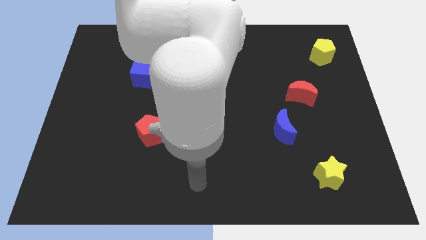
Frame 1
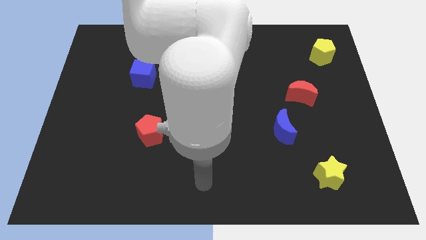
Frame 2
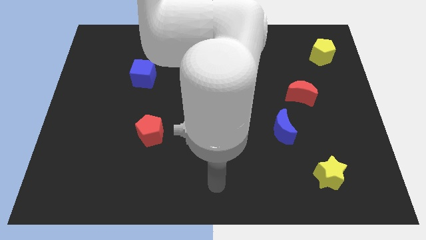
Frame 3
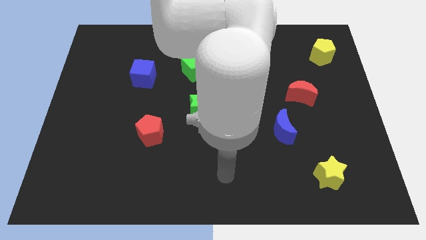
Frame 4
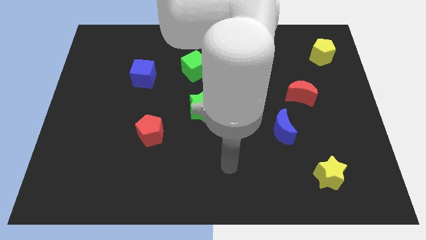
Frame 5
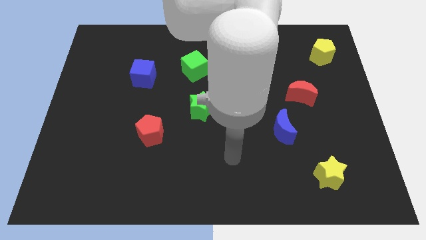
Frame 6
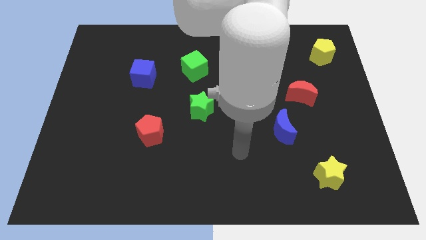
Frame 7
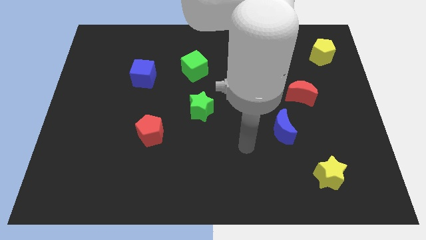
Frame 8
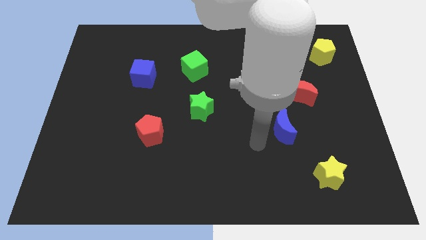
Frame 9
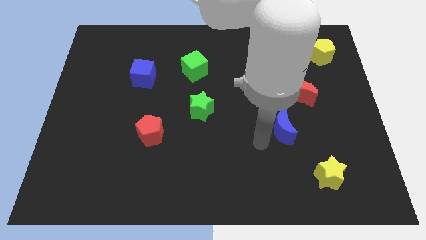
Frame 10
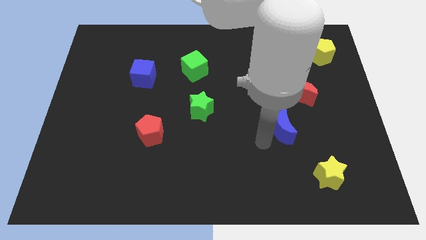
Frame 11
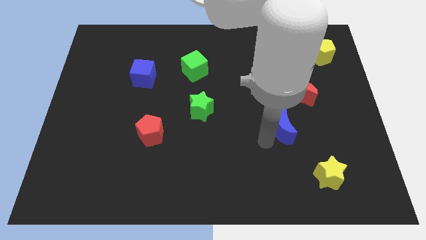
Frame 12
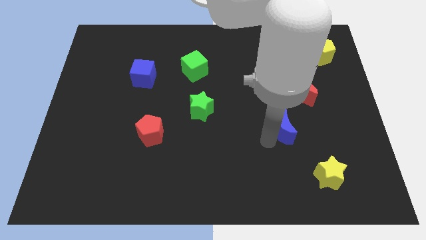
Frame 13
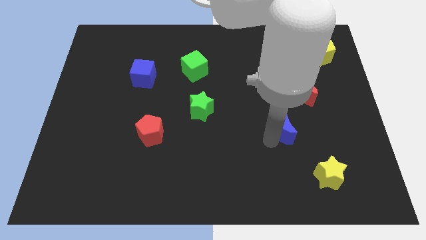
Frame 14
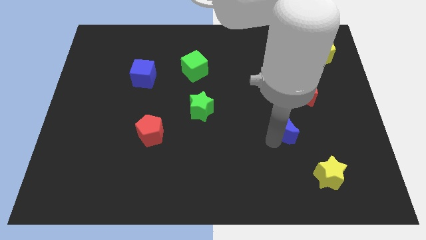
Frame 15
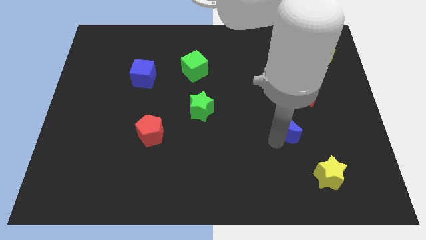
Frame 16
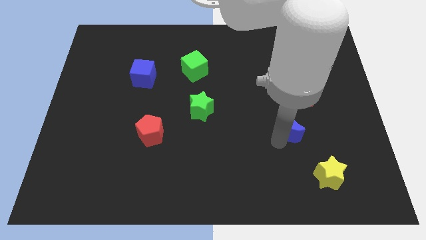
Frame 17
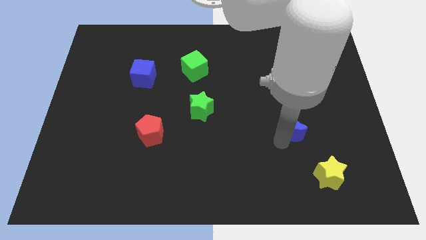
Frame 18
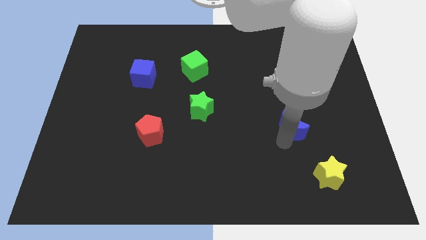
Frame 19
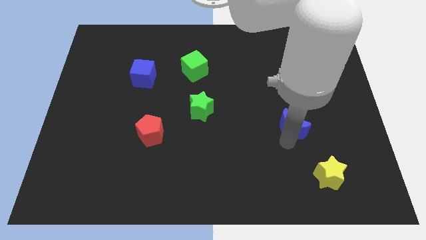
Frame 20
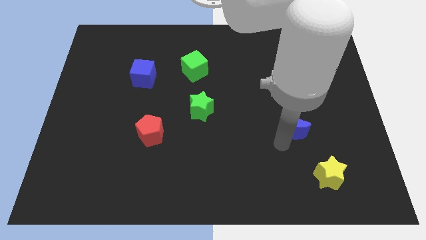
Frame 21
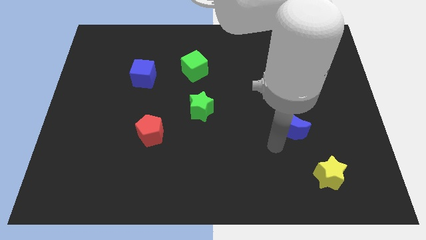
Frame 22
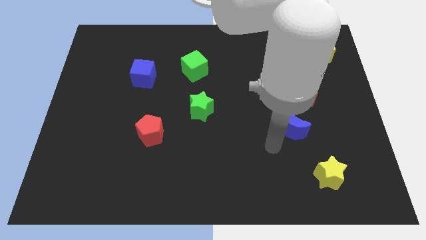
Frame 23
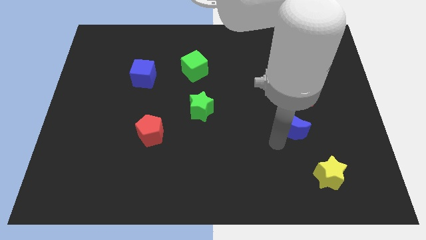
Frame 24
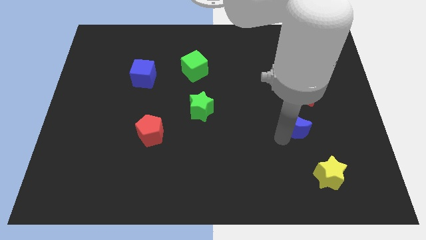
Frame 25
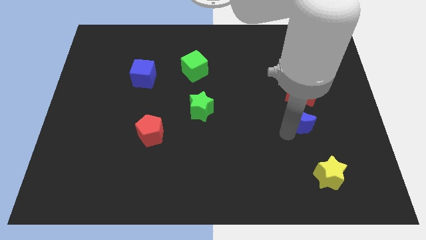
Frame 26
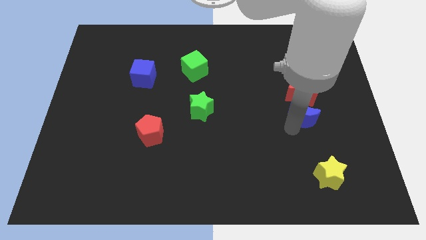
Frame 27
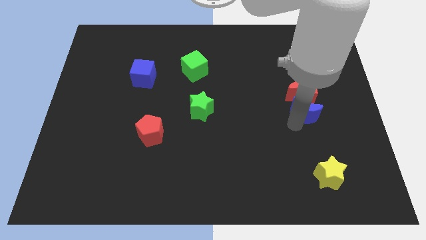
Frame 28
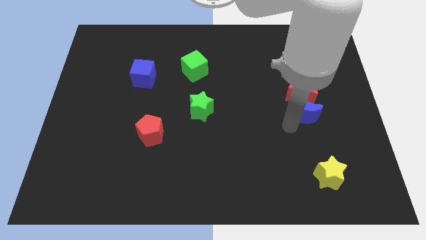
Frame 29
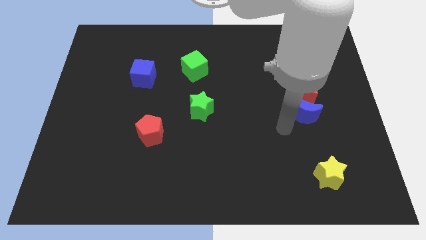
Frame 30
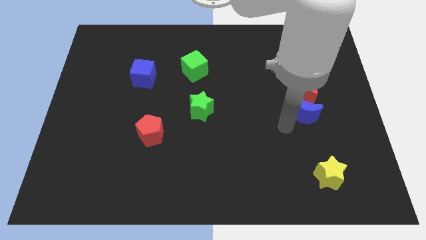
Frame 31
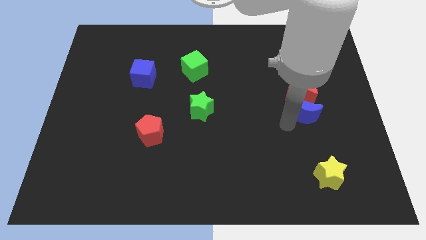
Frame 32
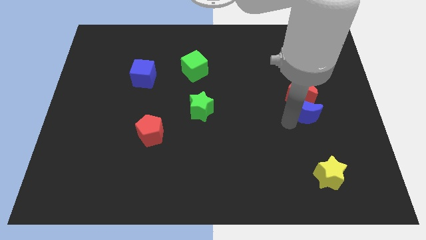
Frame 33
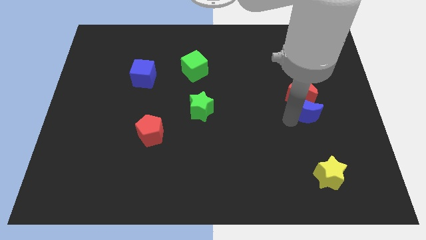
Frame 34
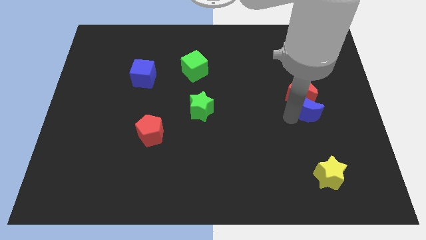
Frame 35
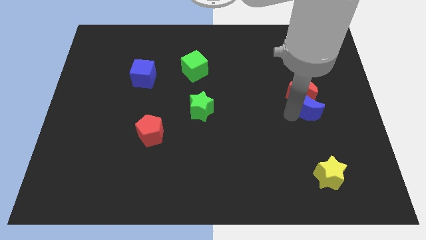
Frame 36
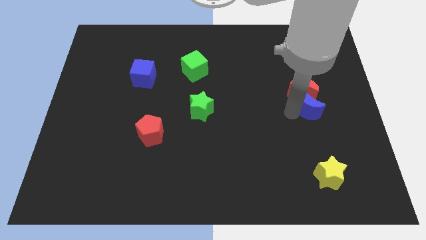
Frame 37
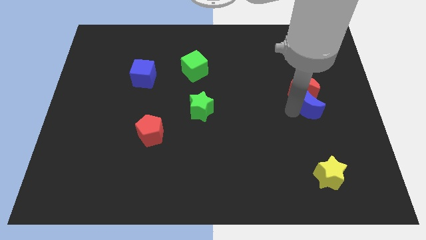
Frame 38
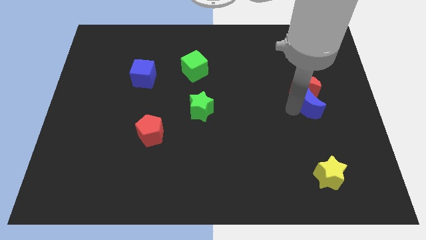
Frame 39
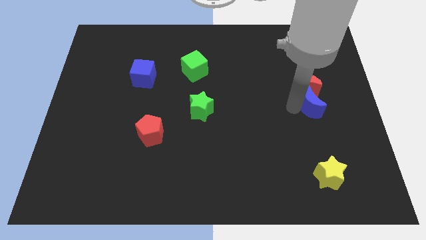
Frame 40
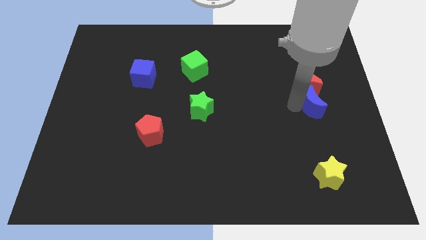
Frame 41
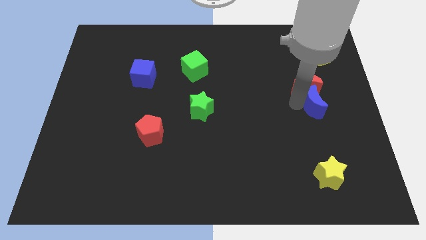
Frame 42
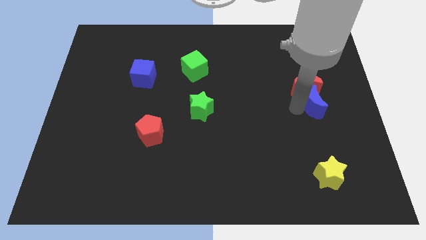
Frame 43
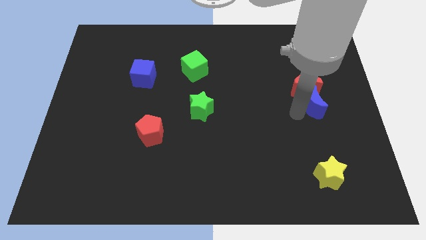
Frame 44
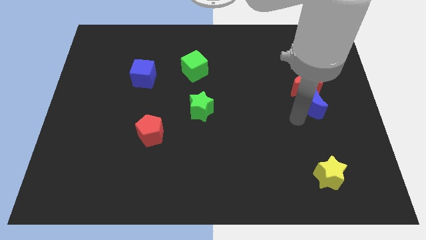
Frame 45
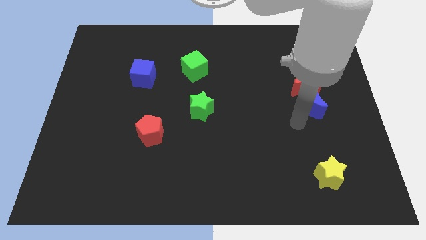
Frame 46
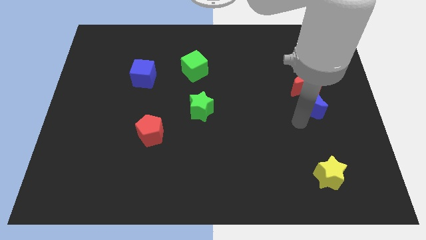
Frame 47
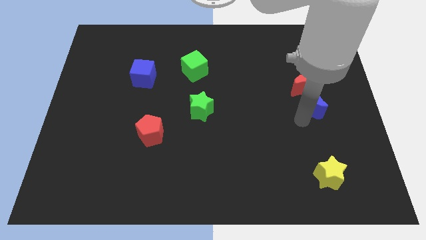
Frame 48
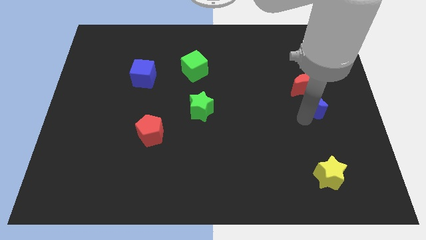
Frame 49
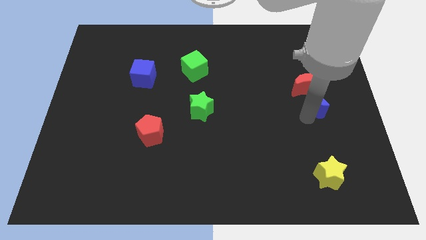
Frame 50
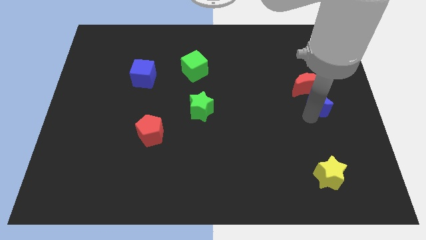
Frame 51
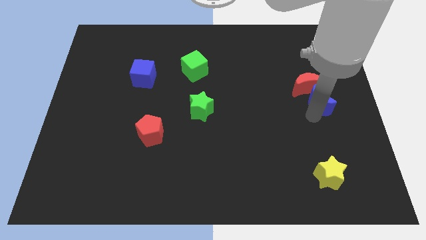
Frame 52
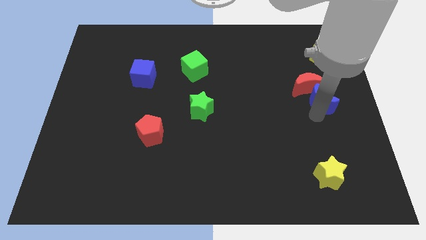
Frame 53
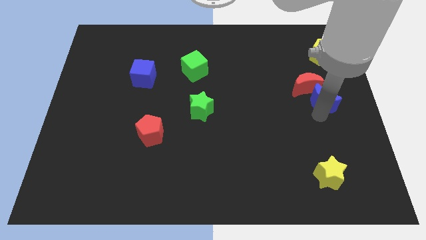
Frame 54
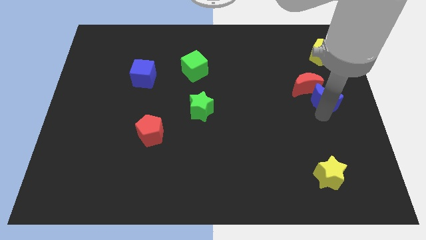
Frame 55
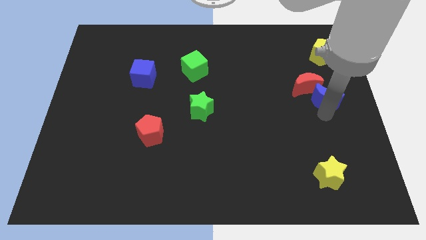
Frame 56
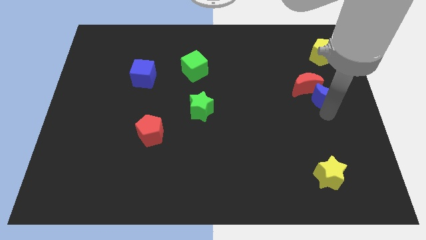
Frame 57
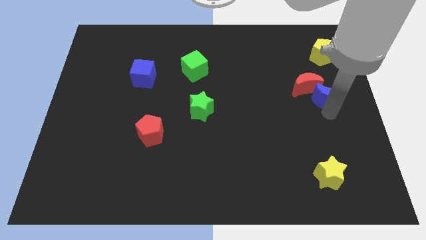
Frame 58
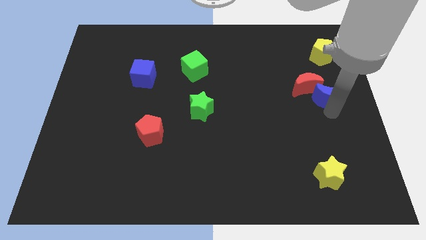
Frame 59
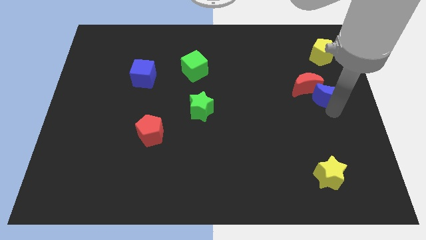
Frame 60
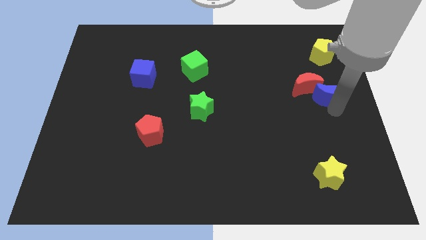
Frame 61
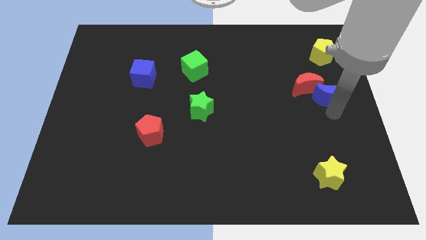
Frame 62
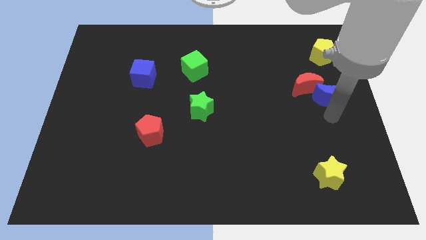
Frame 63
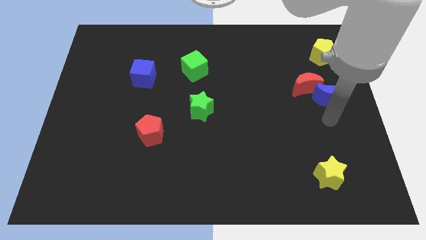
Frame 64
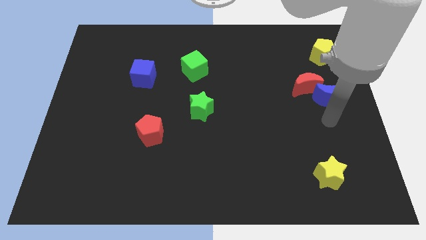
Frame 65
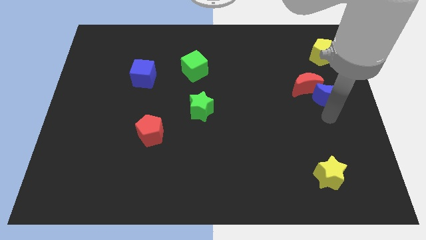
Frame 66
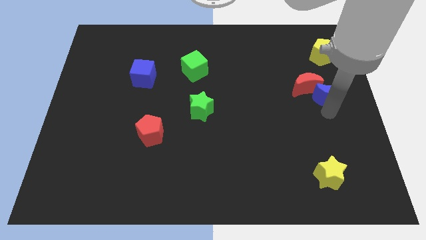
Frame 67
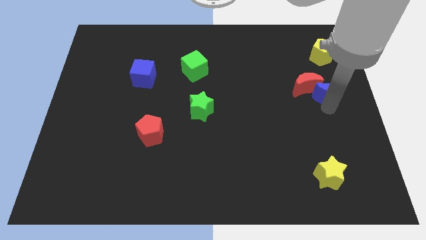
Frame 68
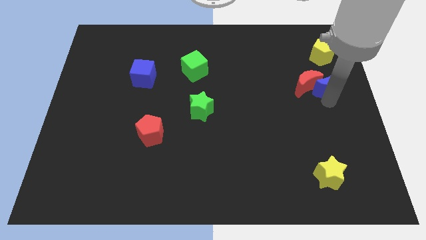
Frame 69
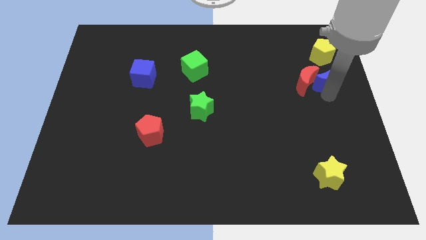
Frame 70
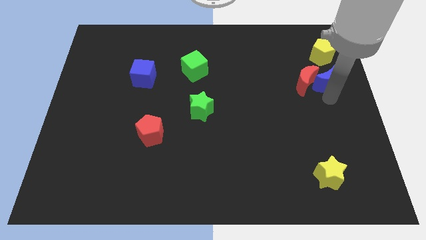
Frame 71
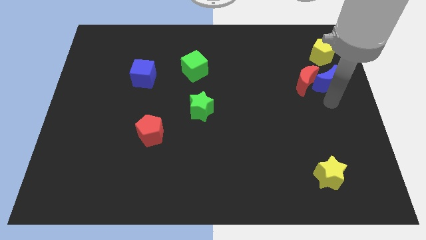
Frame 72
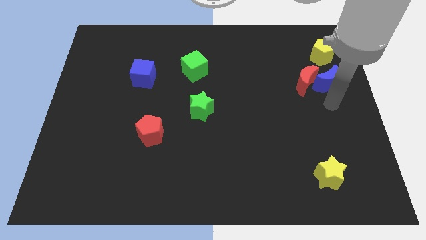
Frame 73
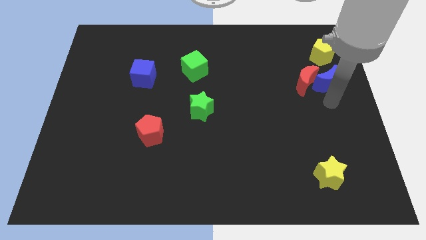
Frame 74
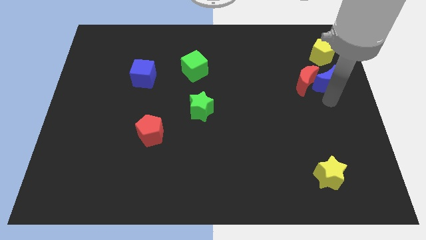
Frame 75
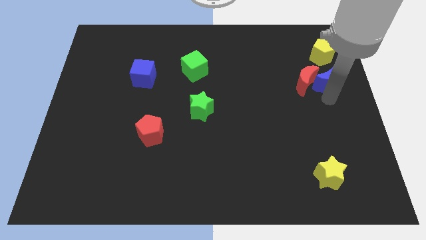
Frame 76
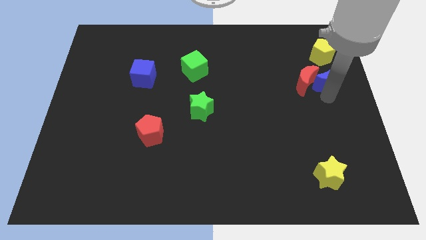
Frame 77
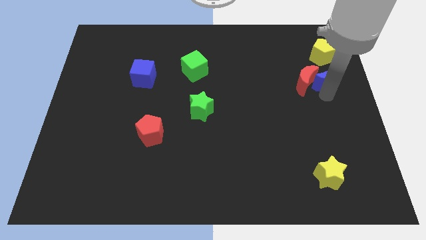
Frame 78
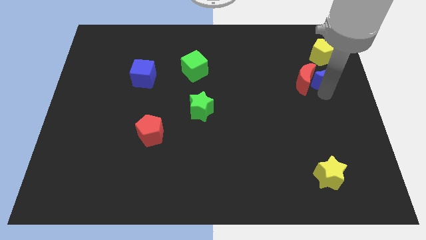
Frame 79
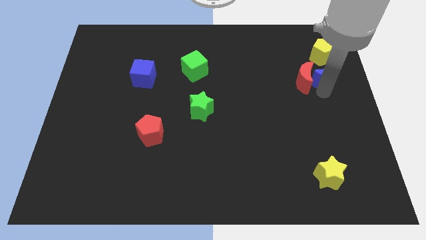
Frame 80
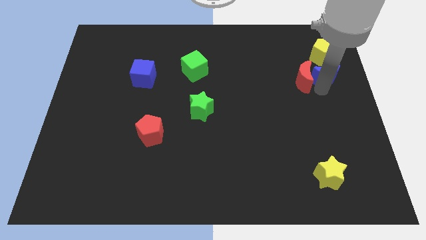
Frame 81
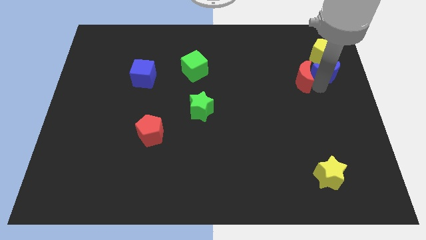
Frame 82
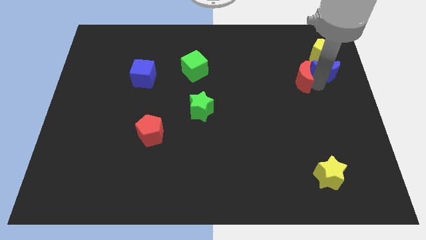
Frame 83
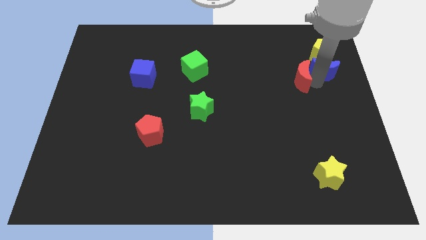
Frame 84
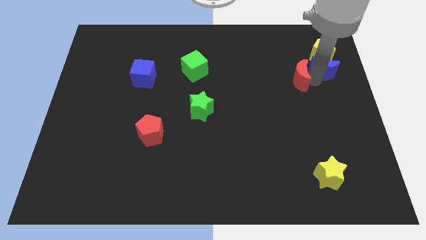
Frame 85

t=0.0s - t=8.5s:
move the blue moon to the yellow pentagon
